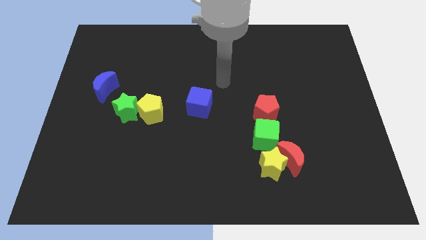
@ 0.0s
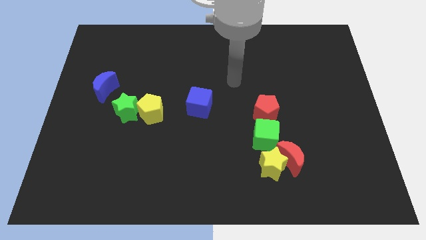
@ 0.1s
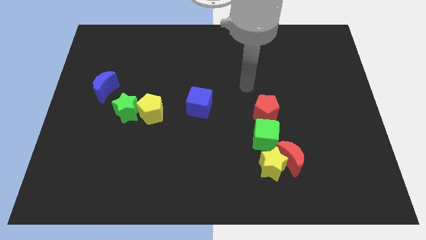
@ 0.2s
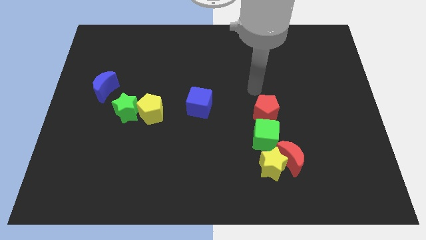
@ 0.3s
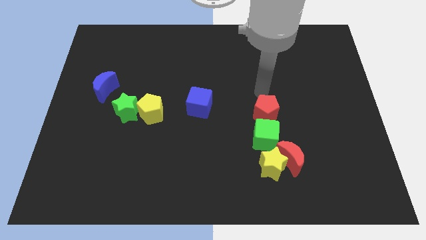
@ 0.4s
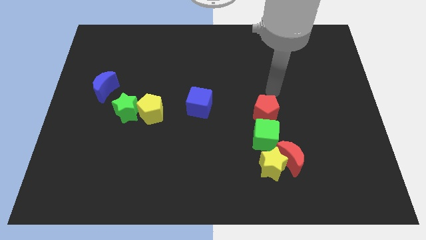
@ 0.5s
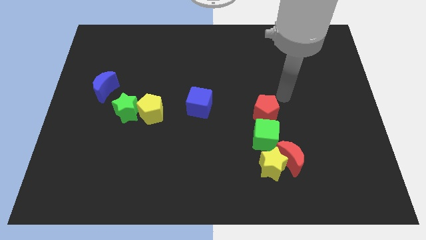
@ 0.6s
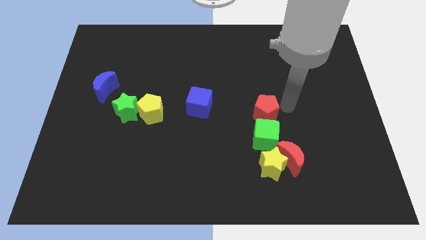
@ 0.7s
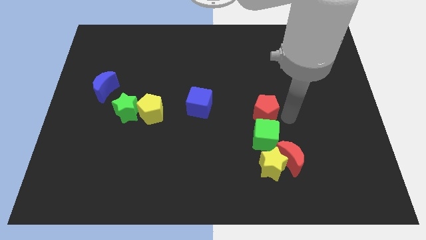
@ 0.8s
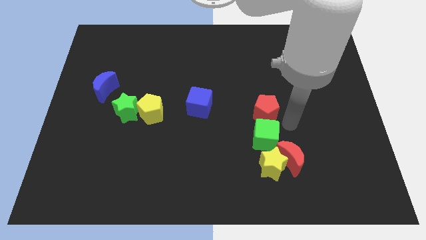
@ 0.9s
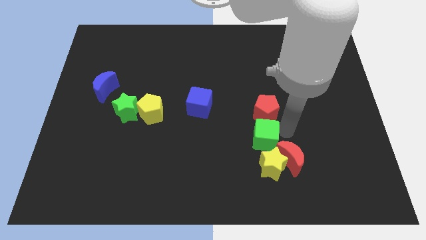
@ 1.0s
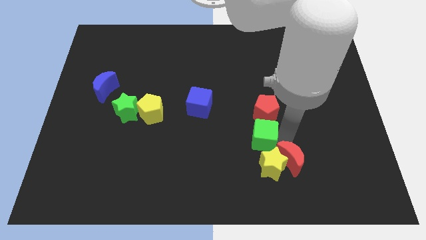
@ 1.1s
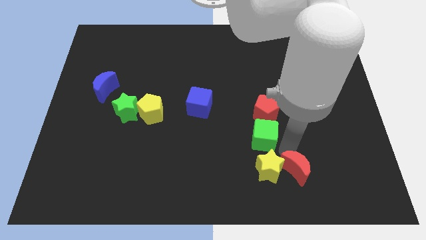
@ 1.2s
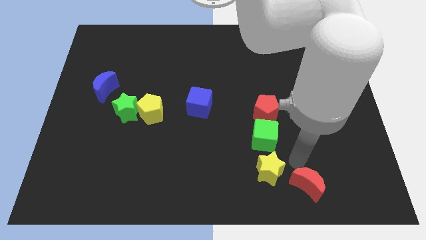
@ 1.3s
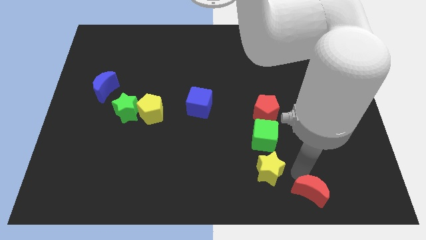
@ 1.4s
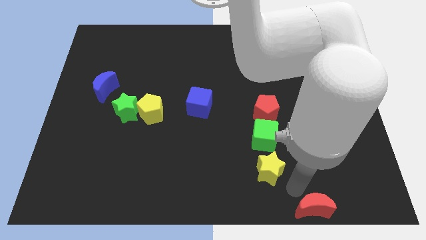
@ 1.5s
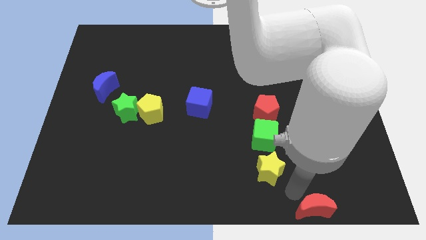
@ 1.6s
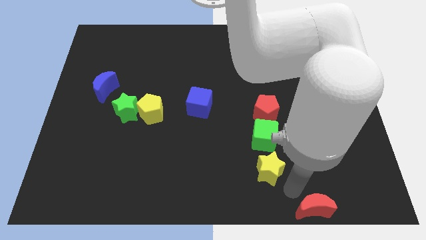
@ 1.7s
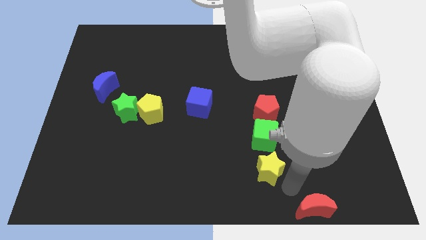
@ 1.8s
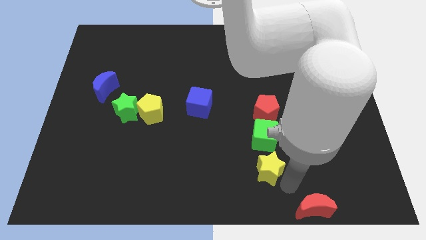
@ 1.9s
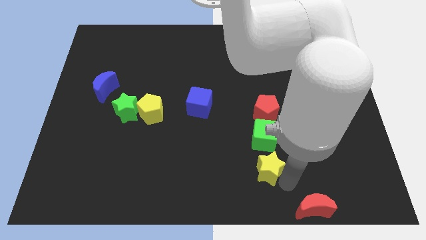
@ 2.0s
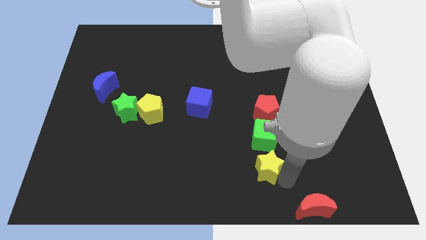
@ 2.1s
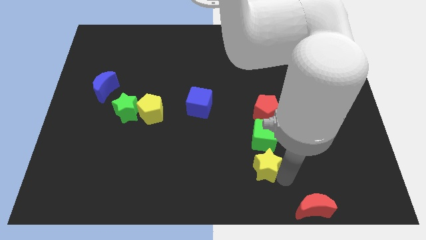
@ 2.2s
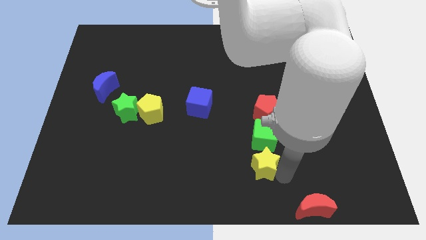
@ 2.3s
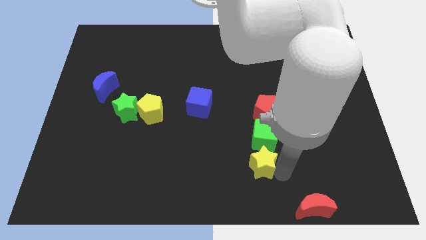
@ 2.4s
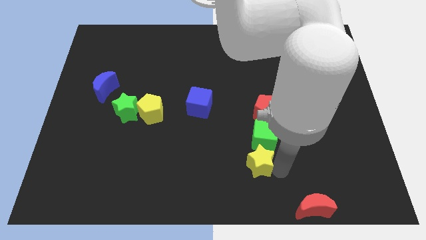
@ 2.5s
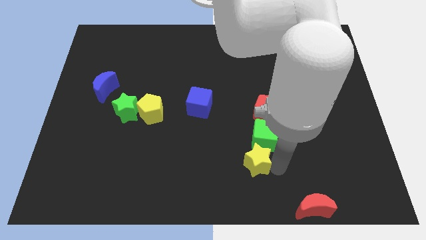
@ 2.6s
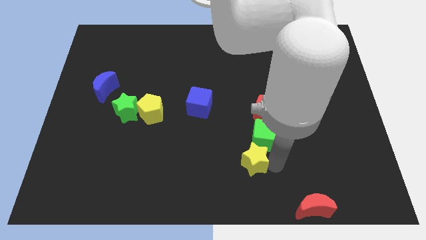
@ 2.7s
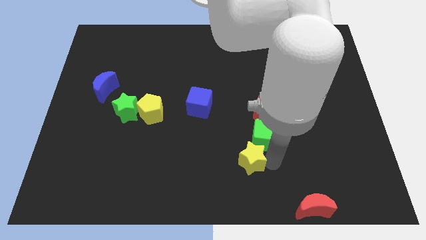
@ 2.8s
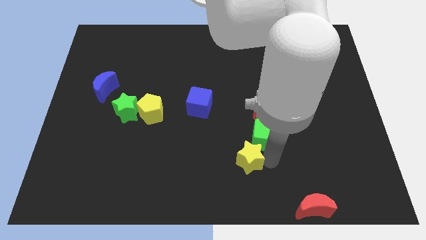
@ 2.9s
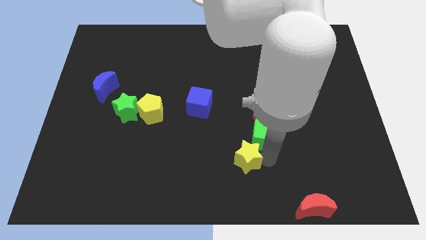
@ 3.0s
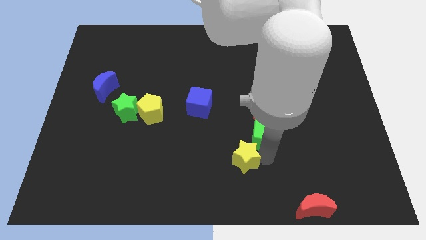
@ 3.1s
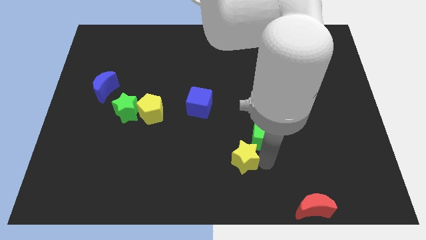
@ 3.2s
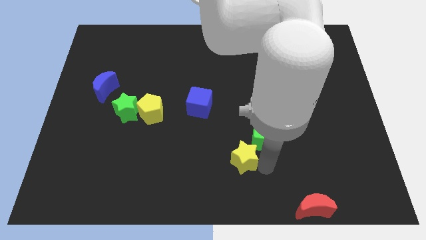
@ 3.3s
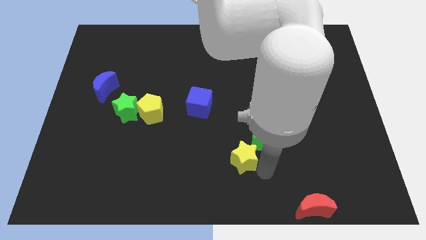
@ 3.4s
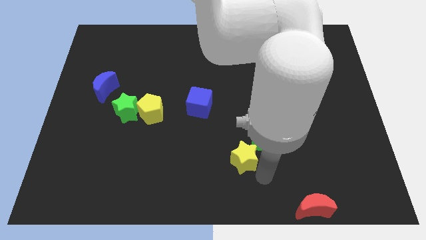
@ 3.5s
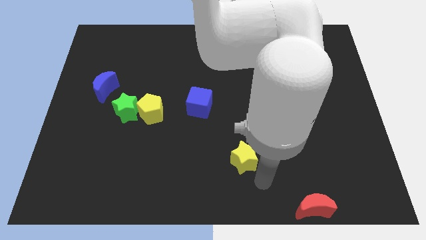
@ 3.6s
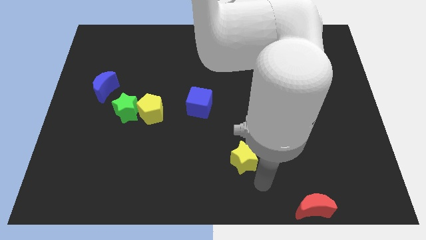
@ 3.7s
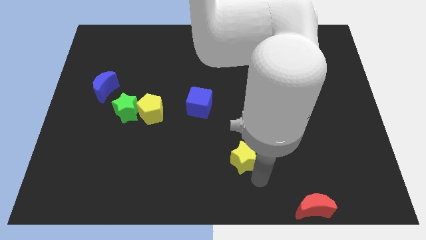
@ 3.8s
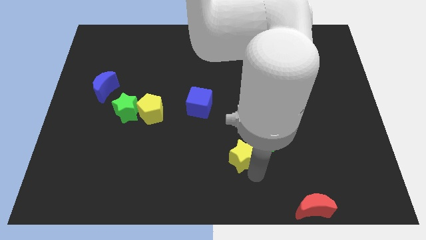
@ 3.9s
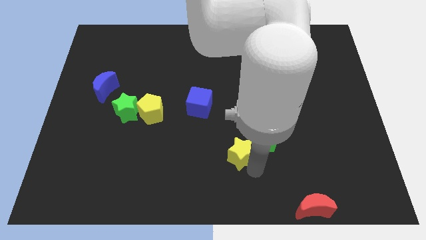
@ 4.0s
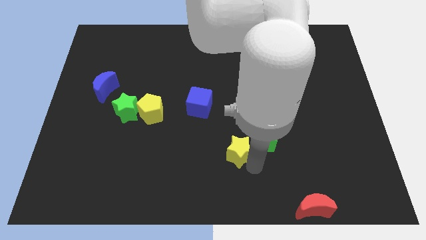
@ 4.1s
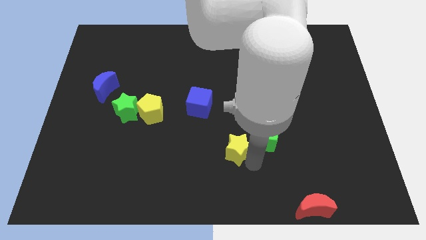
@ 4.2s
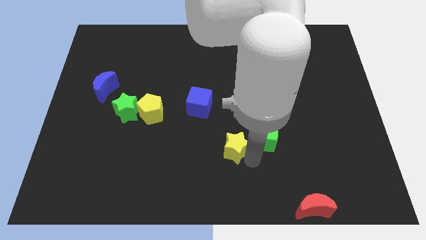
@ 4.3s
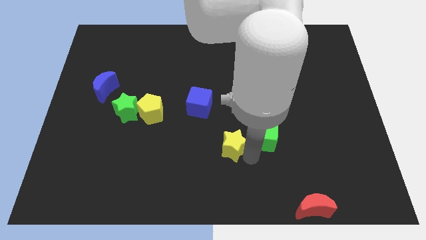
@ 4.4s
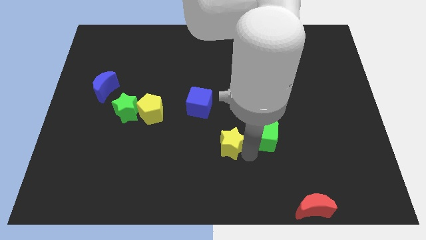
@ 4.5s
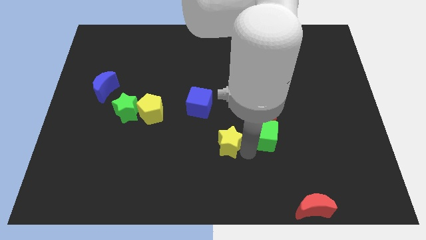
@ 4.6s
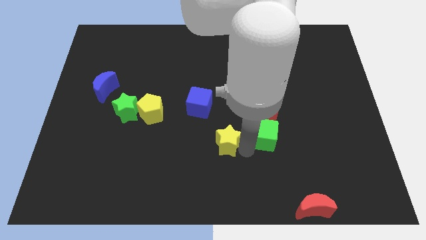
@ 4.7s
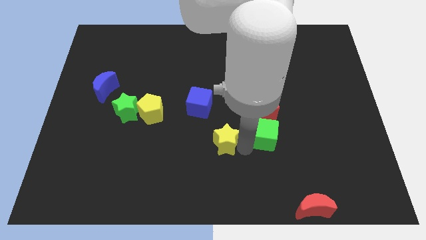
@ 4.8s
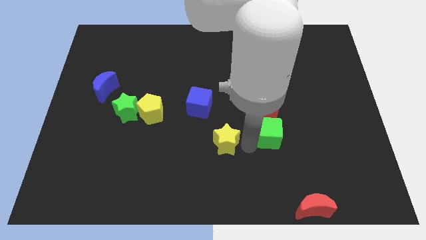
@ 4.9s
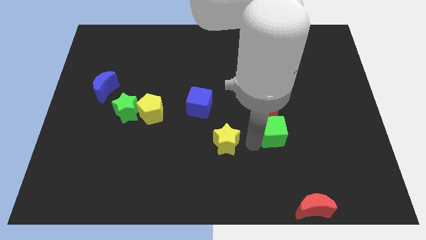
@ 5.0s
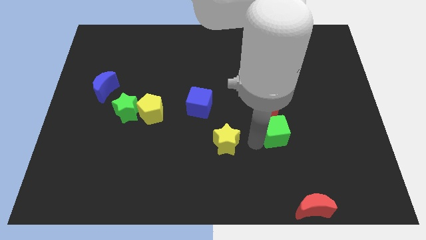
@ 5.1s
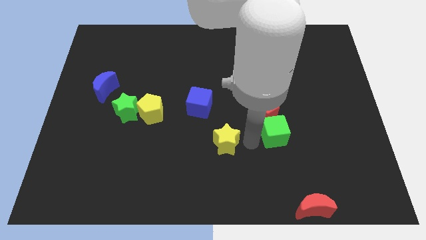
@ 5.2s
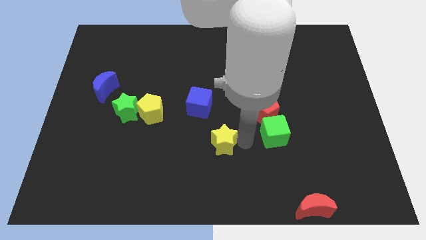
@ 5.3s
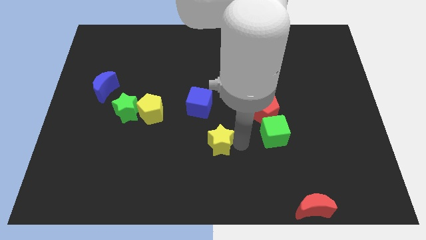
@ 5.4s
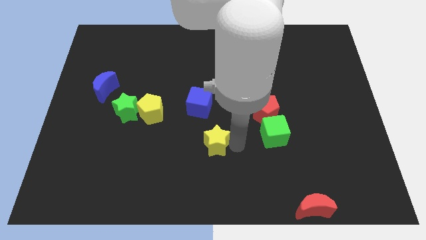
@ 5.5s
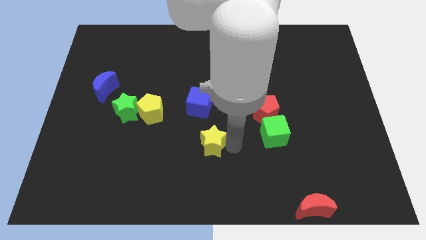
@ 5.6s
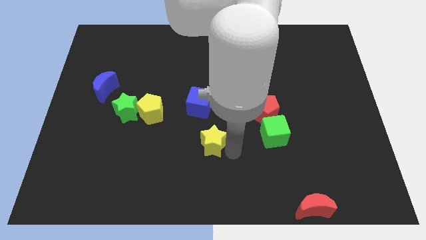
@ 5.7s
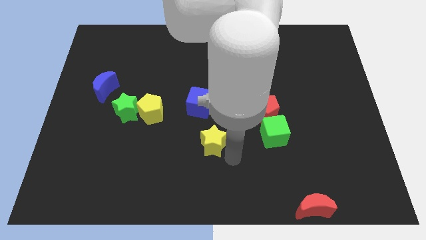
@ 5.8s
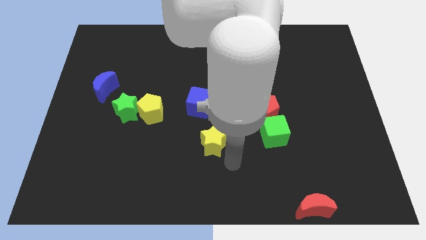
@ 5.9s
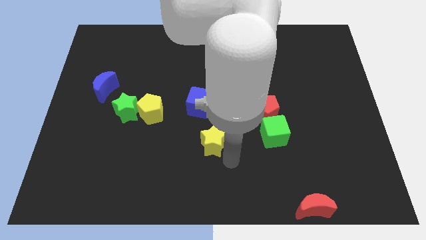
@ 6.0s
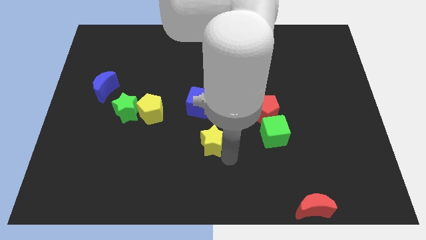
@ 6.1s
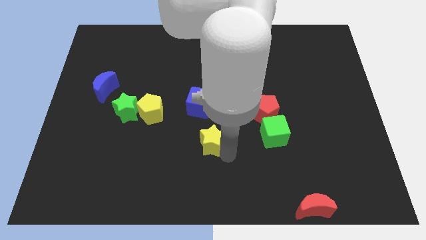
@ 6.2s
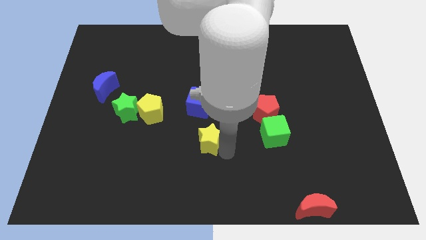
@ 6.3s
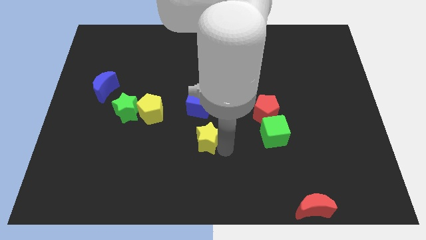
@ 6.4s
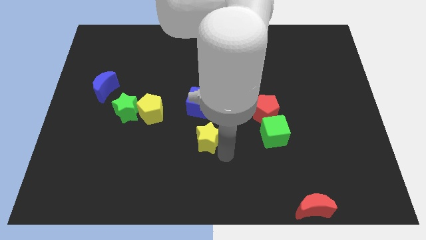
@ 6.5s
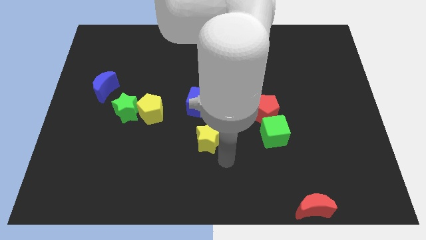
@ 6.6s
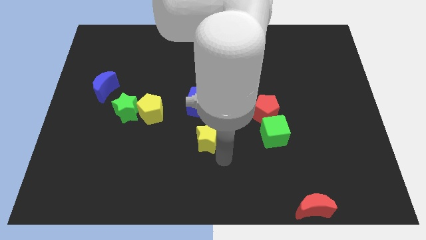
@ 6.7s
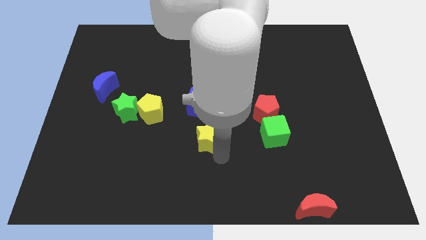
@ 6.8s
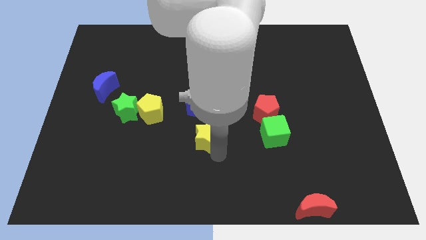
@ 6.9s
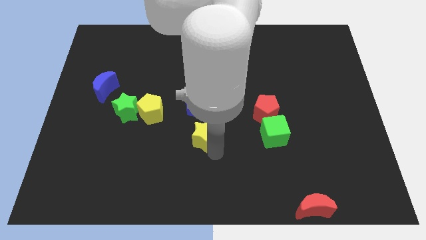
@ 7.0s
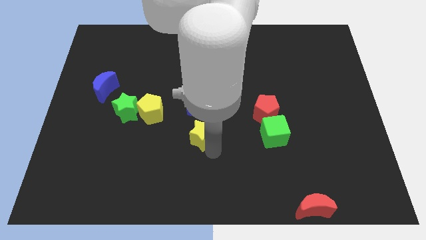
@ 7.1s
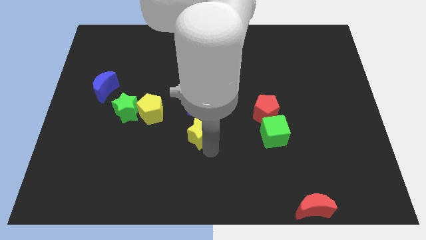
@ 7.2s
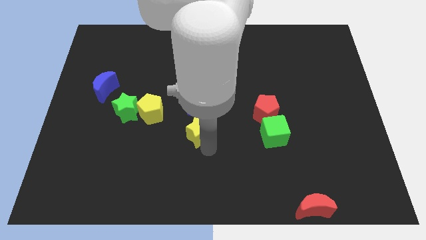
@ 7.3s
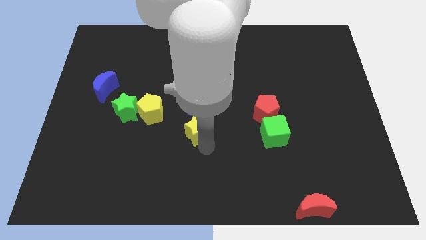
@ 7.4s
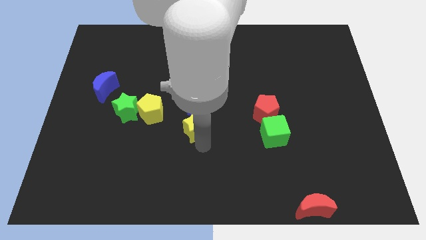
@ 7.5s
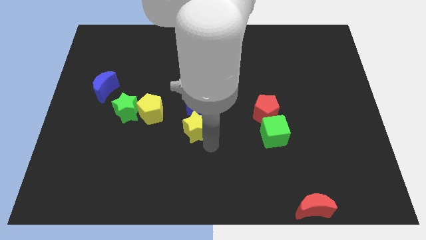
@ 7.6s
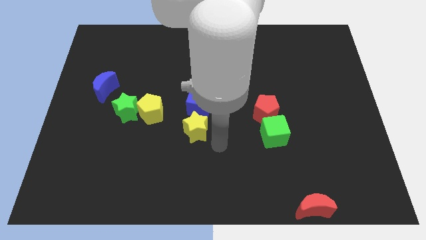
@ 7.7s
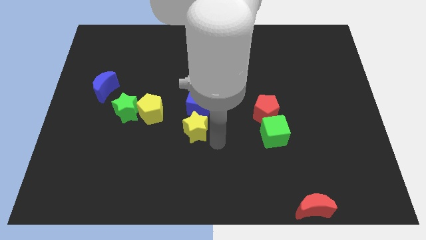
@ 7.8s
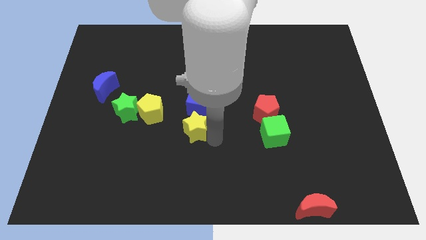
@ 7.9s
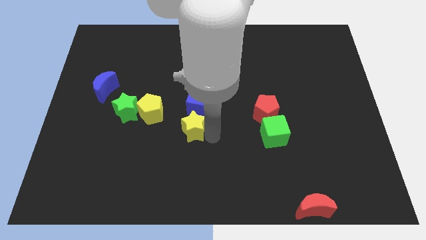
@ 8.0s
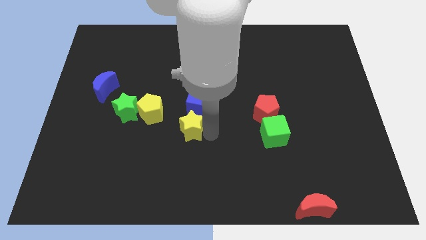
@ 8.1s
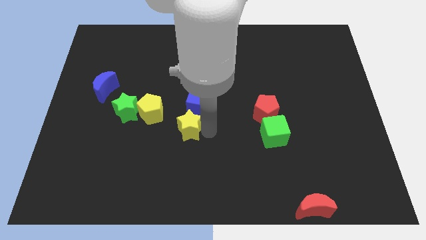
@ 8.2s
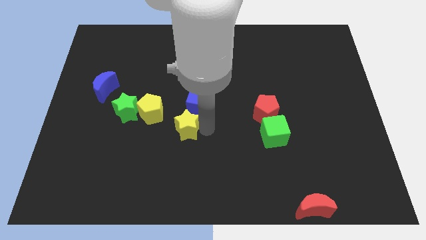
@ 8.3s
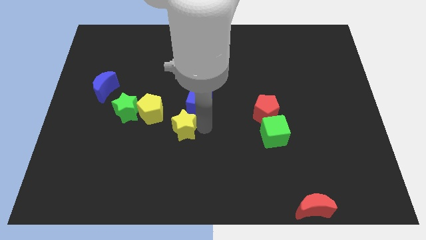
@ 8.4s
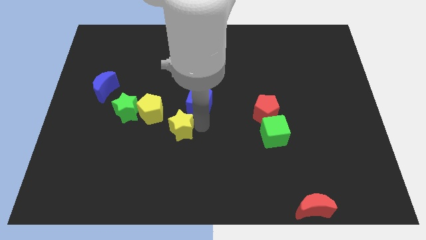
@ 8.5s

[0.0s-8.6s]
put the yellow star just right of the green star
